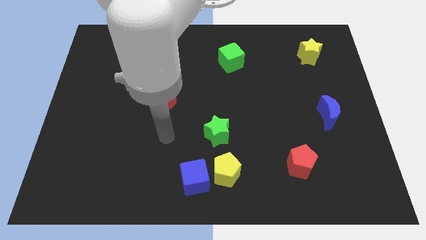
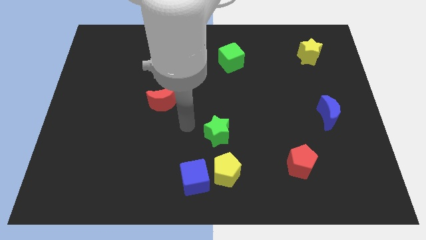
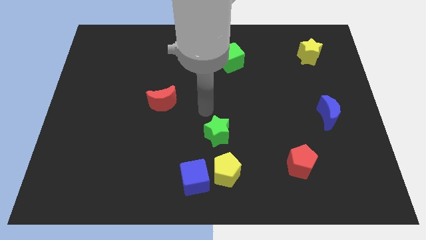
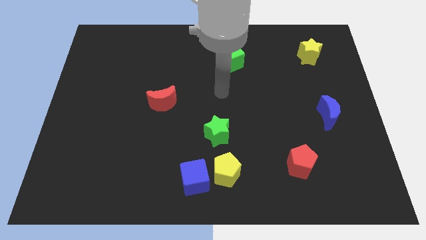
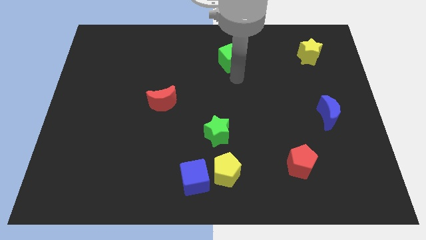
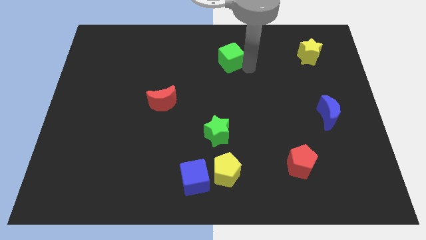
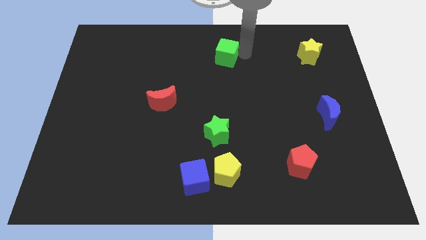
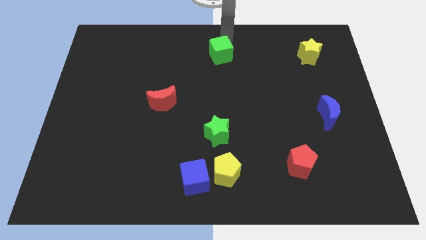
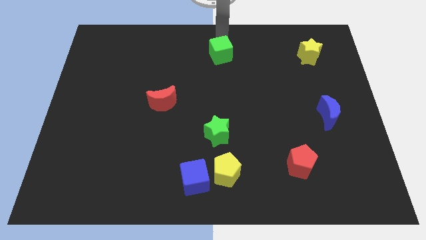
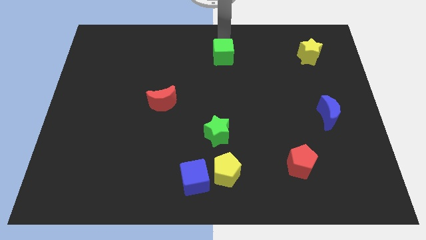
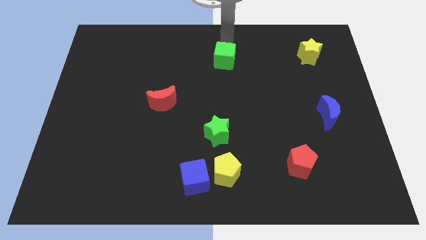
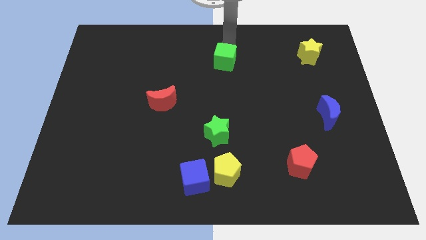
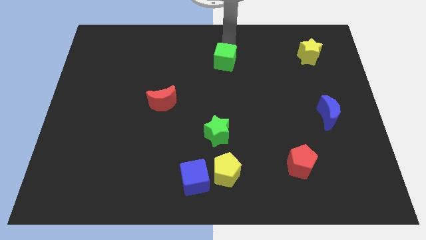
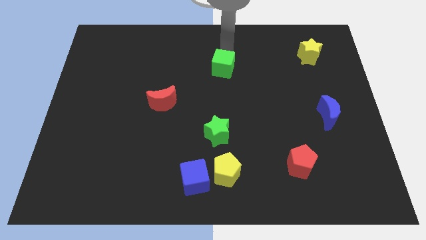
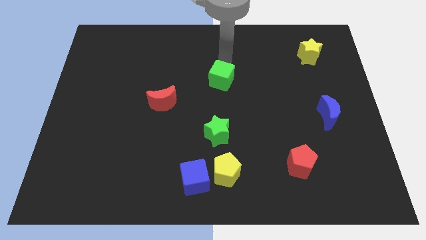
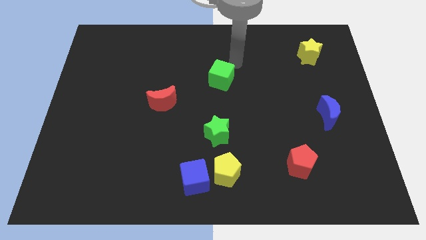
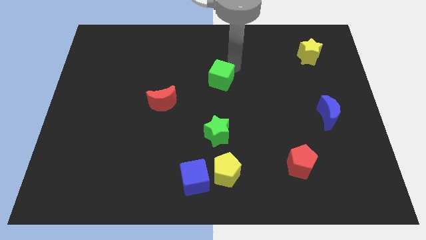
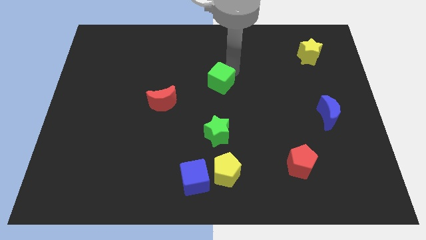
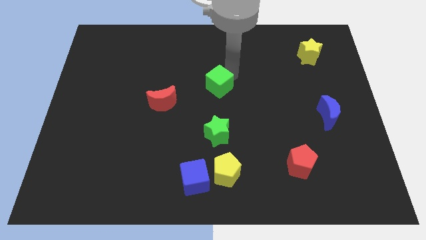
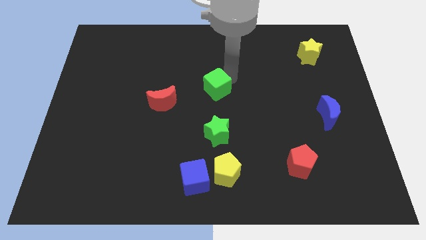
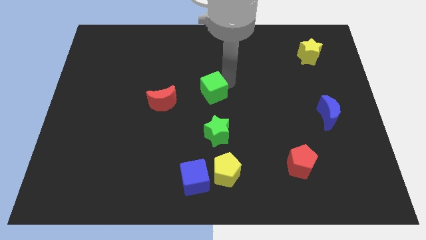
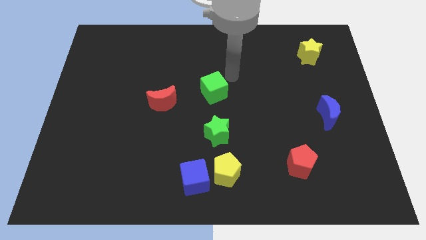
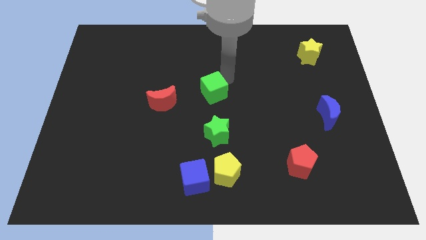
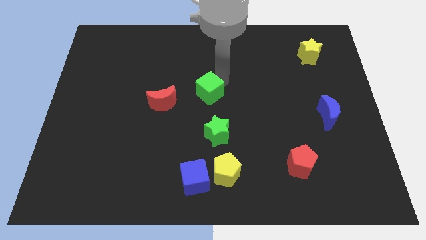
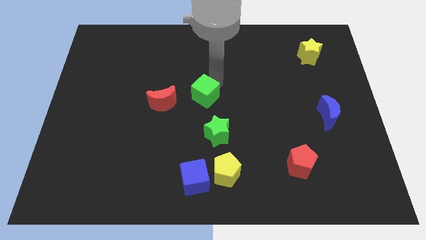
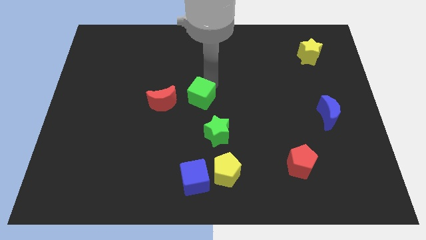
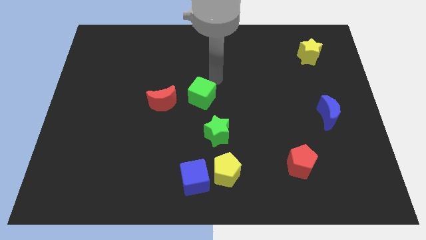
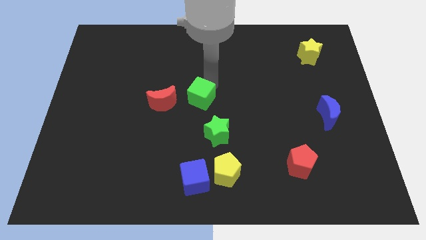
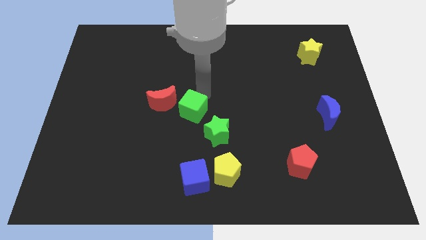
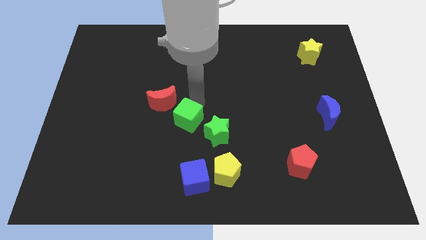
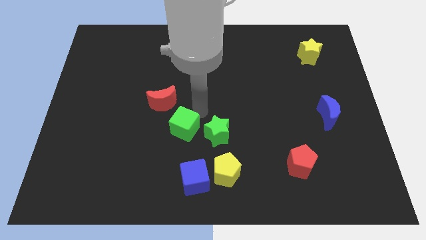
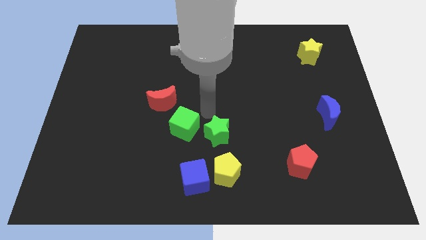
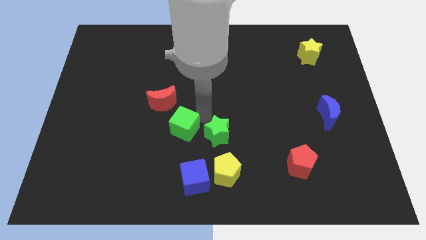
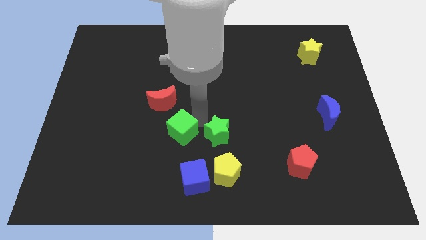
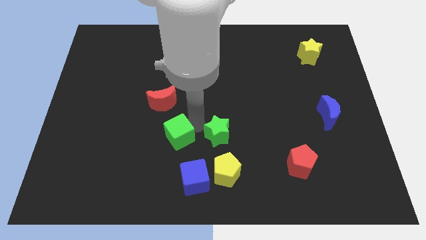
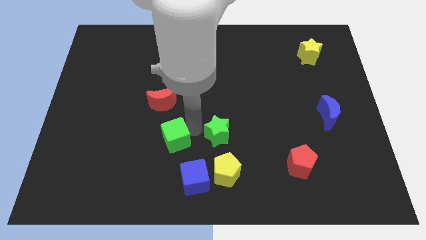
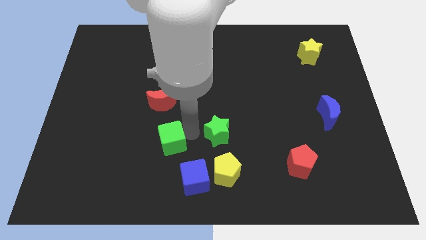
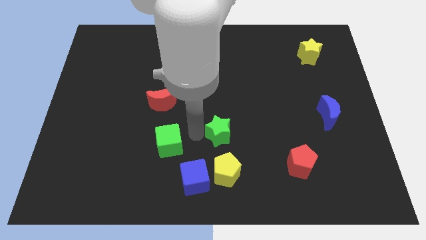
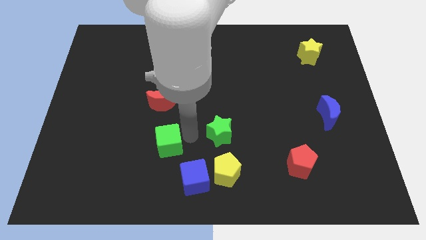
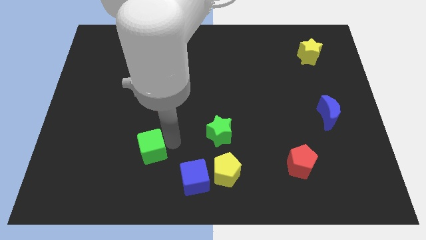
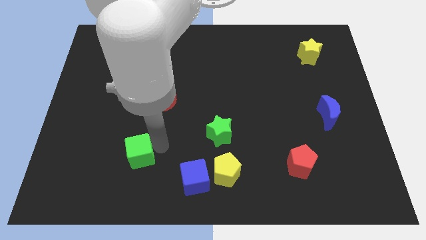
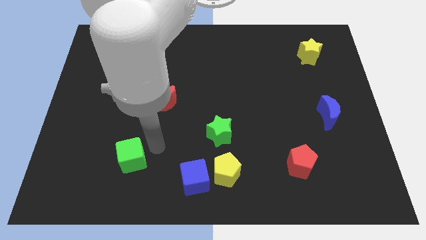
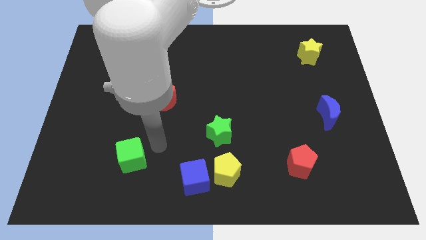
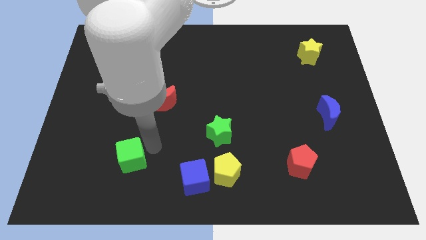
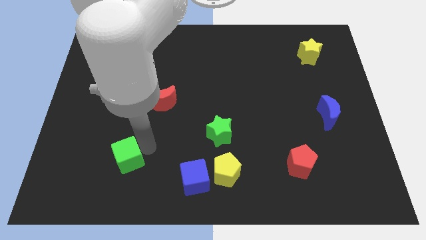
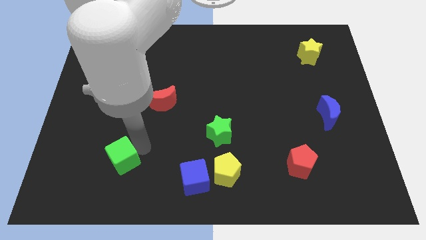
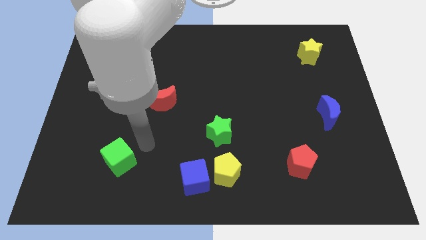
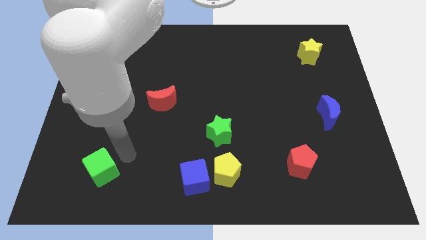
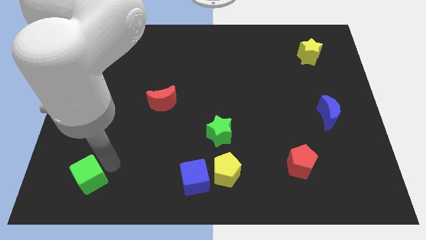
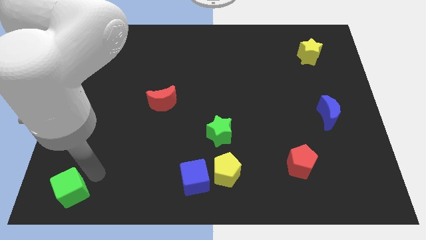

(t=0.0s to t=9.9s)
put the green cube to the bottom left

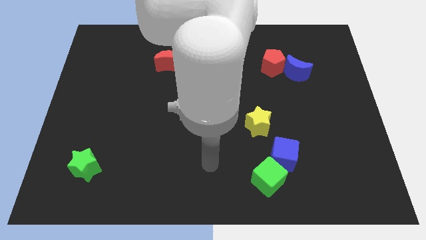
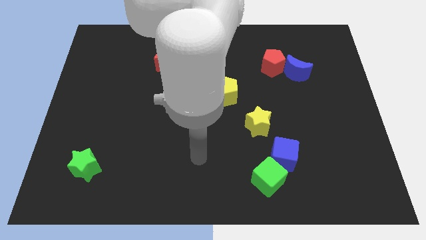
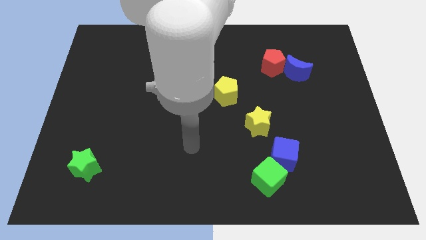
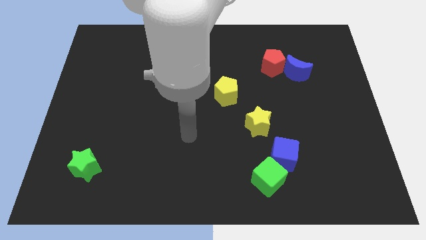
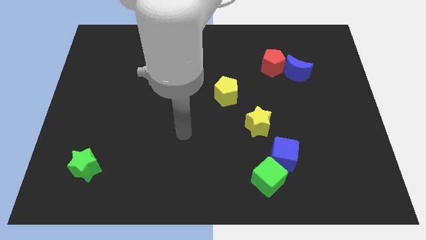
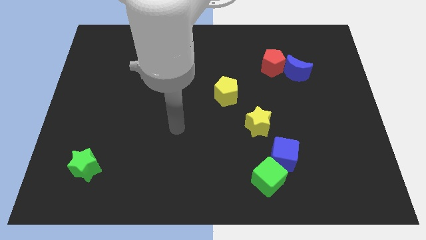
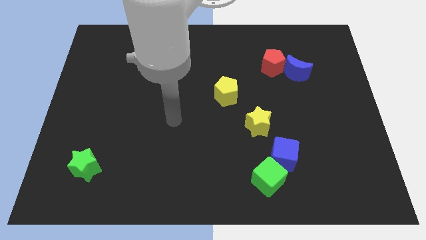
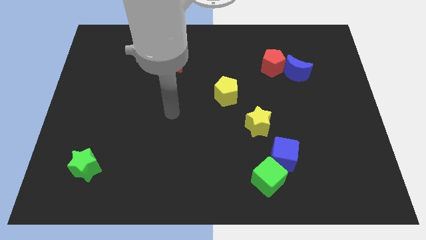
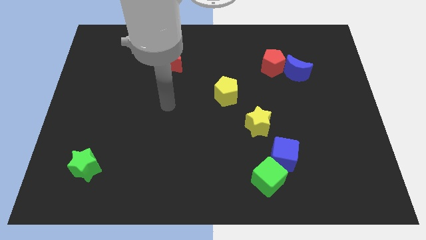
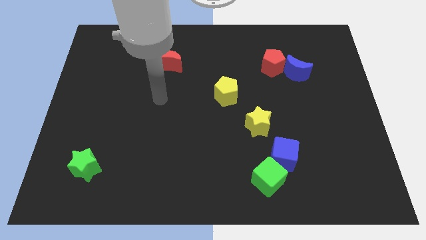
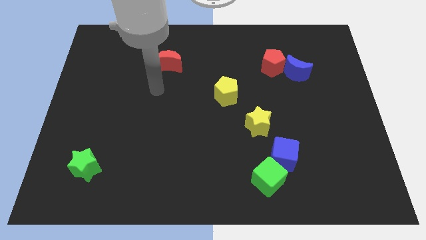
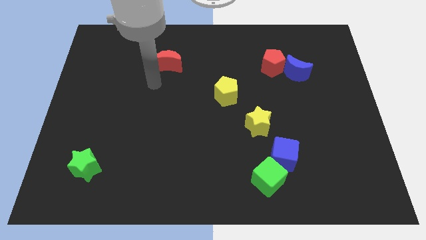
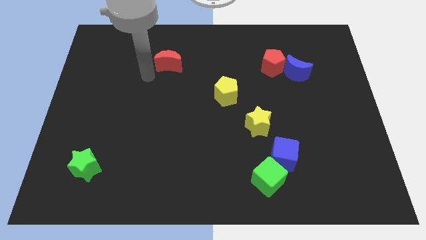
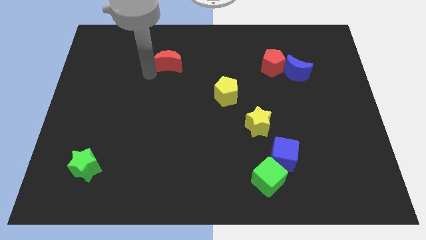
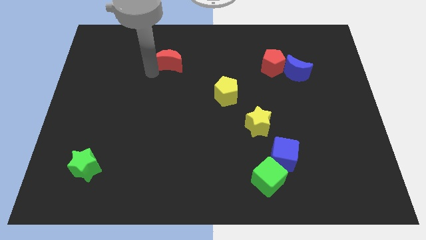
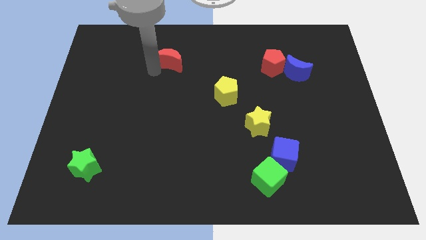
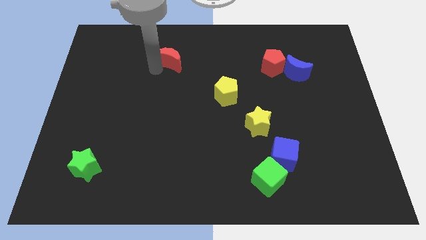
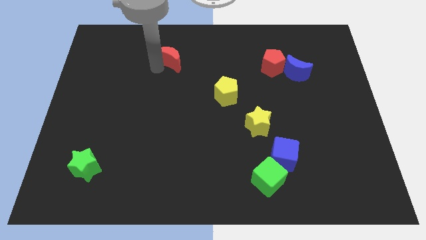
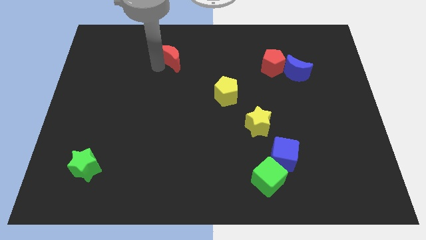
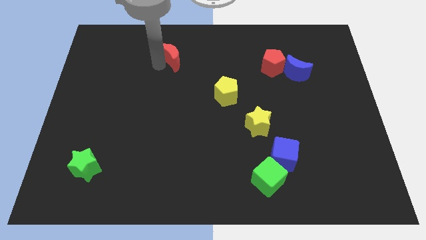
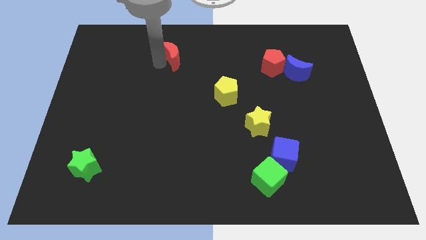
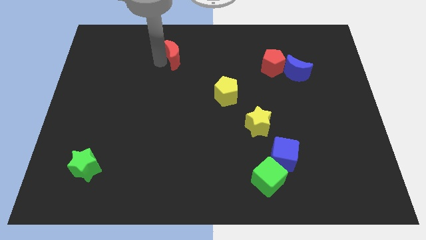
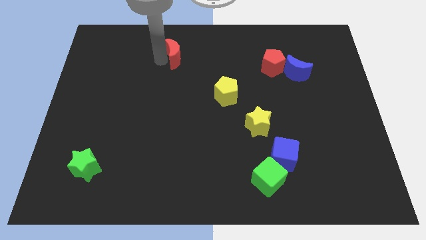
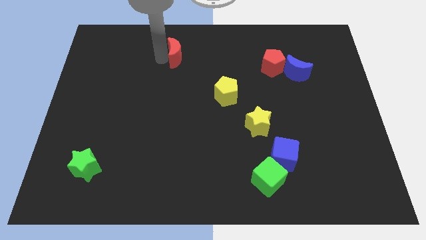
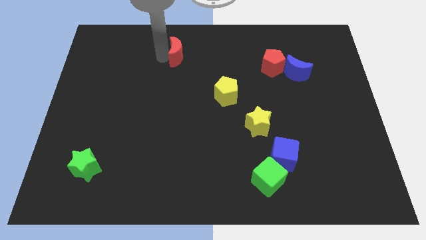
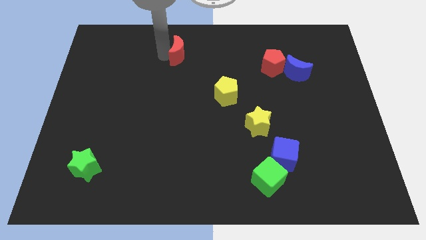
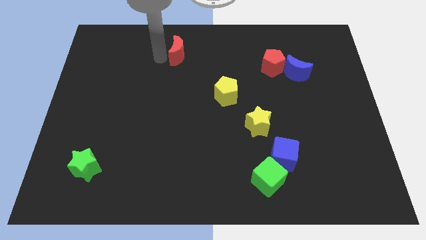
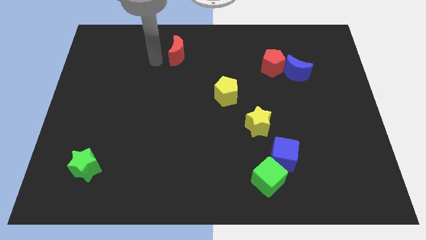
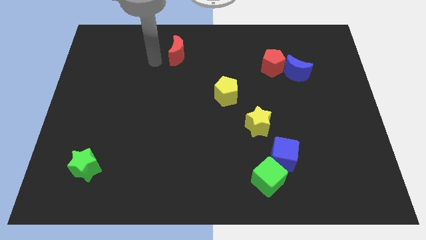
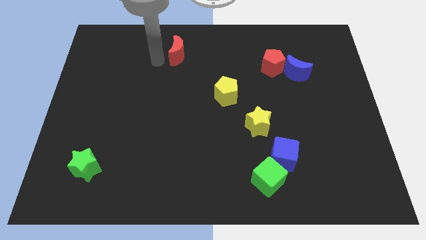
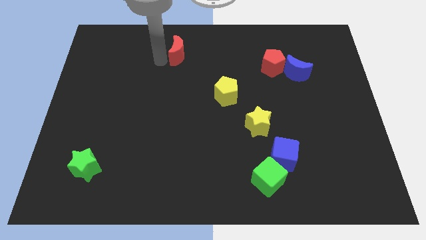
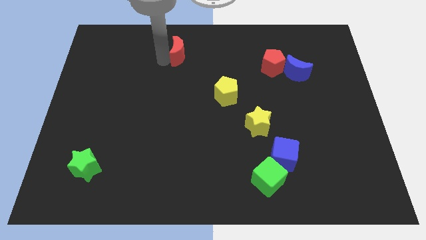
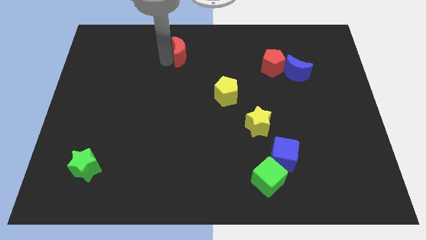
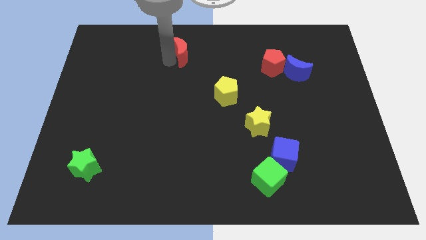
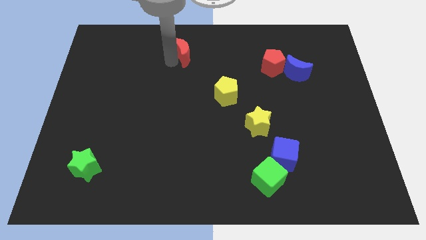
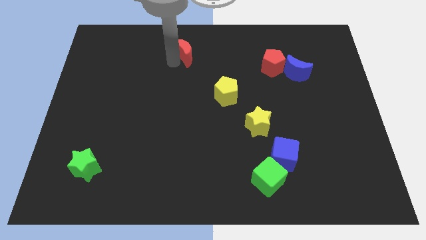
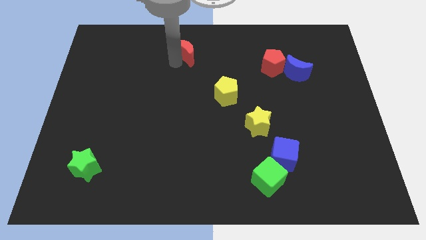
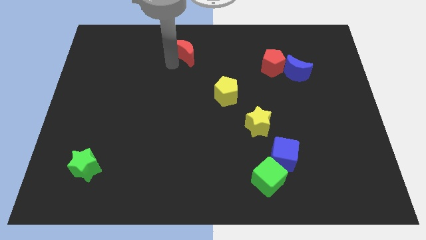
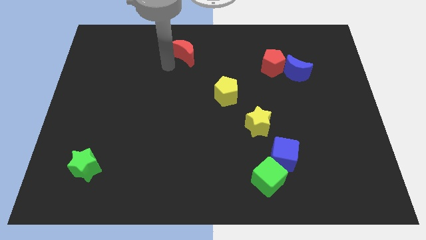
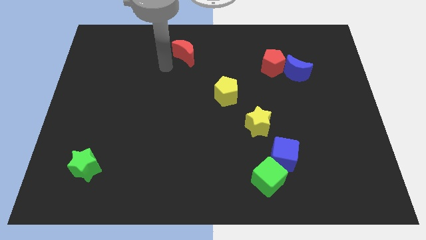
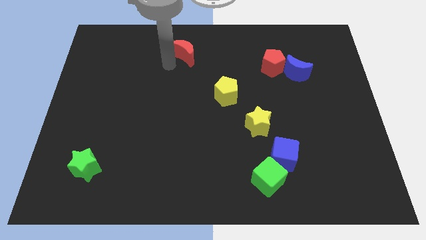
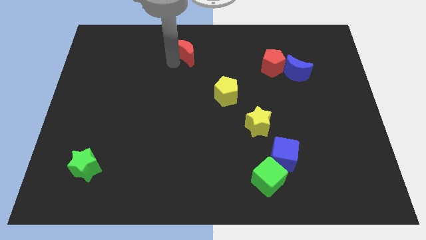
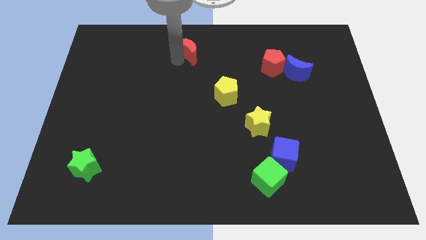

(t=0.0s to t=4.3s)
slide the red moon to the towards your base
